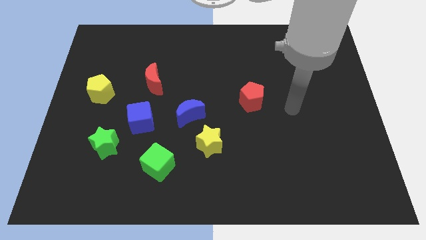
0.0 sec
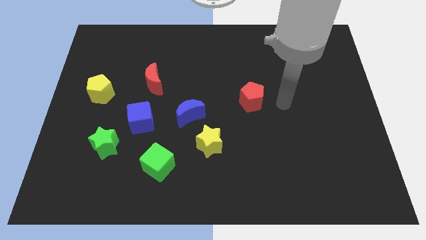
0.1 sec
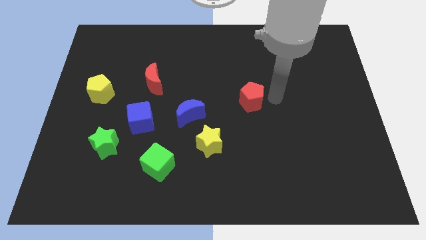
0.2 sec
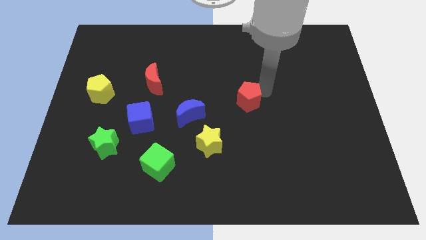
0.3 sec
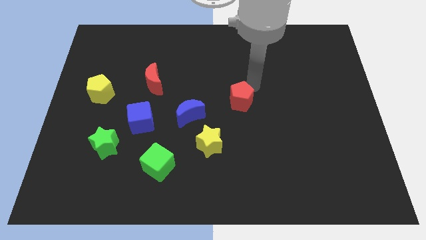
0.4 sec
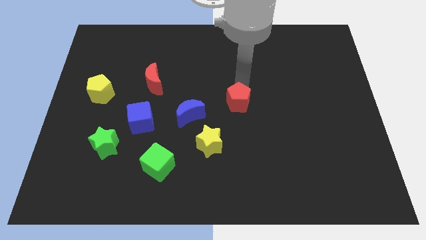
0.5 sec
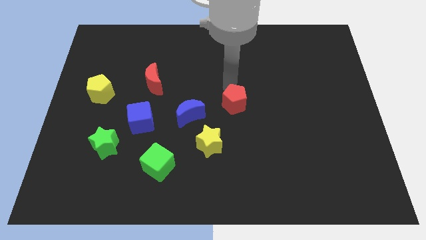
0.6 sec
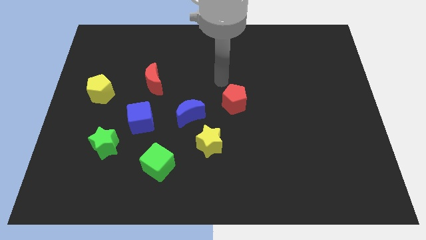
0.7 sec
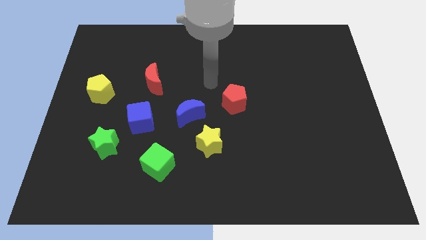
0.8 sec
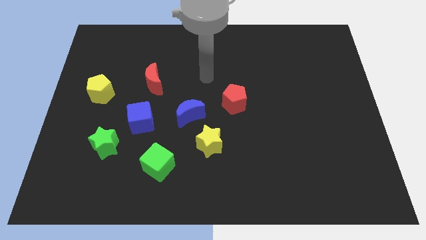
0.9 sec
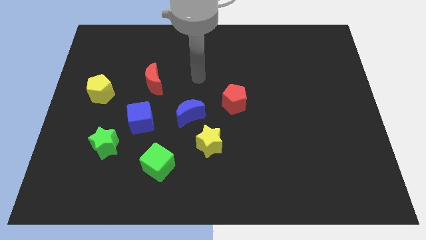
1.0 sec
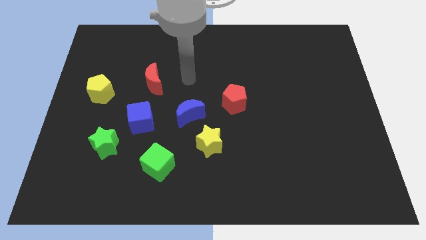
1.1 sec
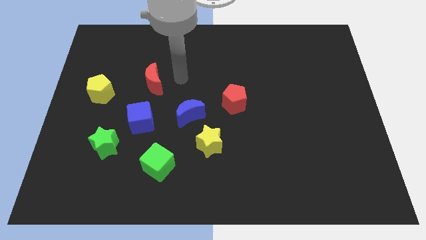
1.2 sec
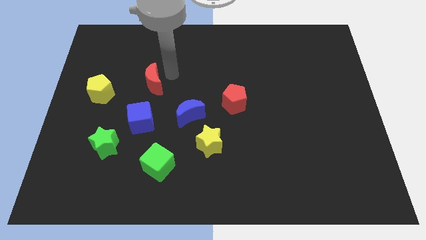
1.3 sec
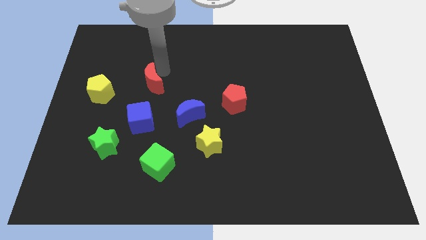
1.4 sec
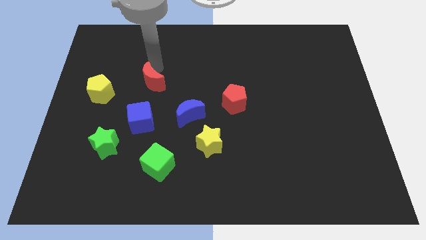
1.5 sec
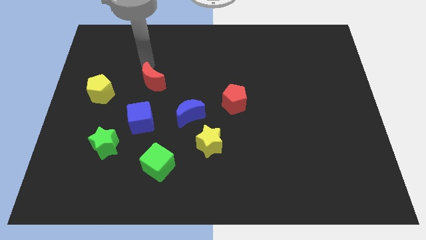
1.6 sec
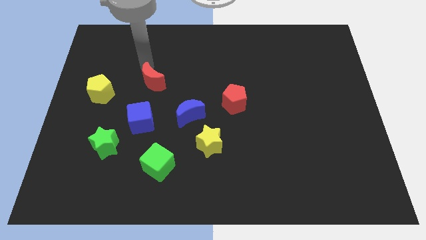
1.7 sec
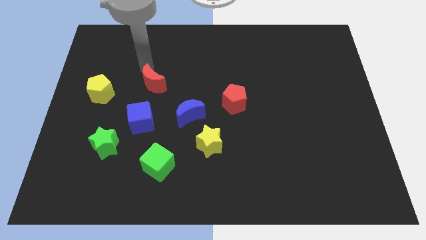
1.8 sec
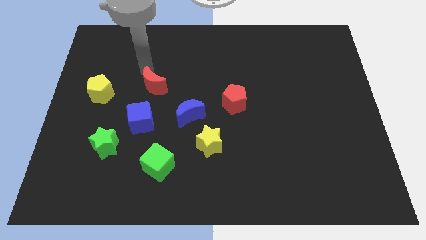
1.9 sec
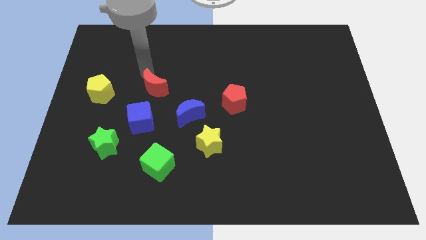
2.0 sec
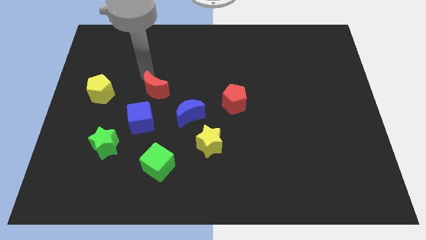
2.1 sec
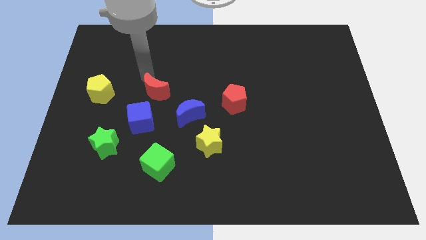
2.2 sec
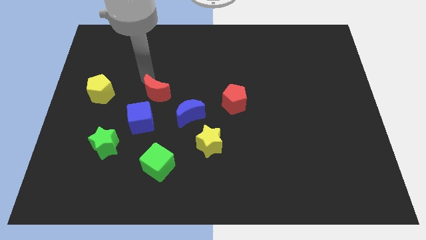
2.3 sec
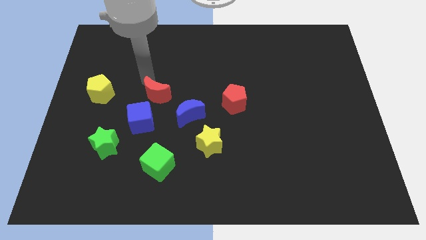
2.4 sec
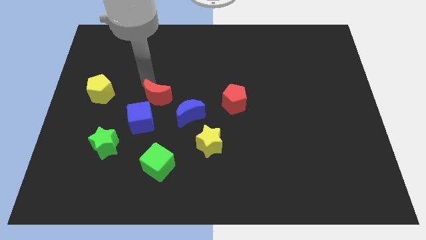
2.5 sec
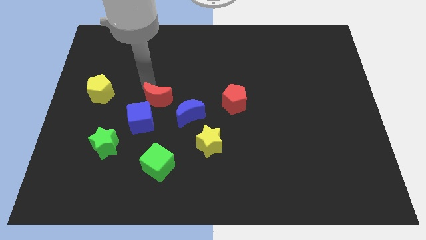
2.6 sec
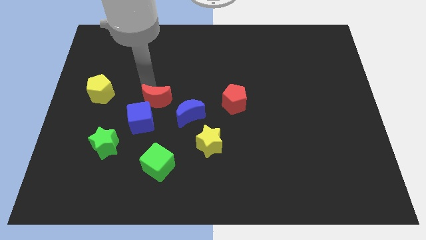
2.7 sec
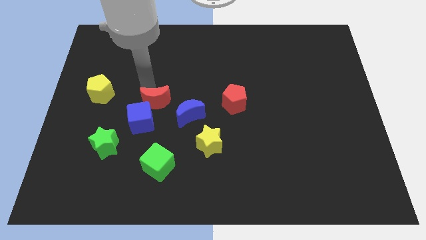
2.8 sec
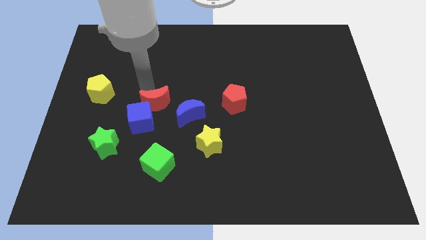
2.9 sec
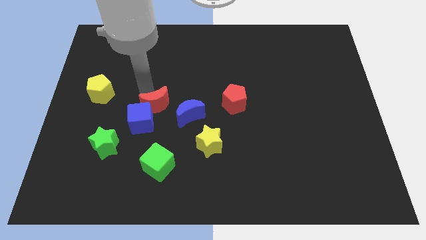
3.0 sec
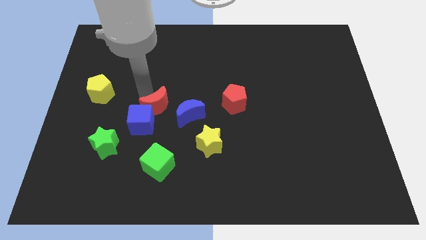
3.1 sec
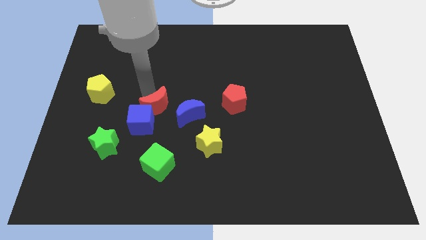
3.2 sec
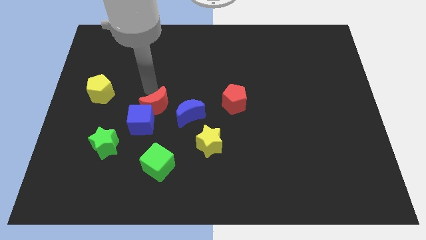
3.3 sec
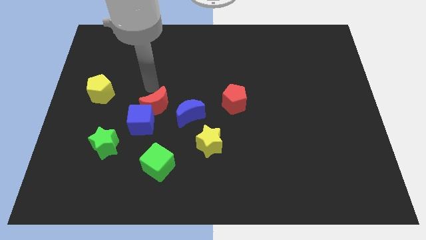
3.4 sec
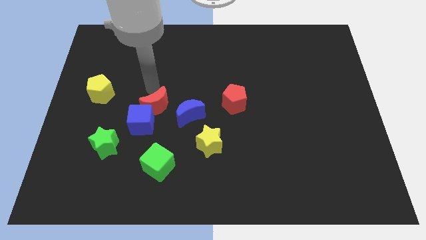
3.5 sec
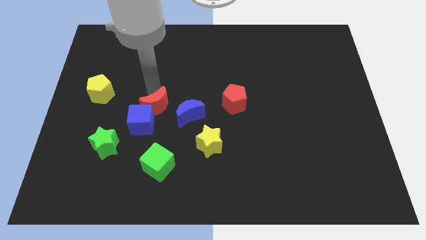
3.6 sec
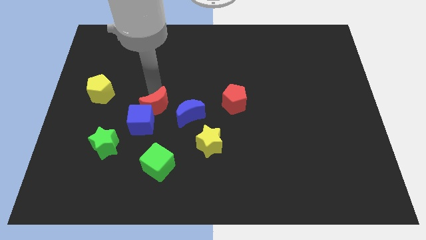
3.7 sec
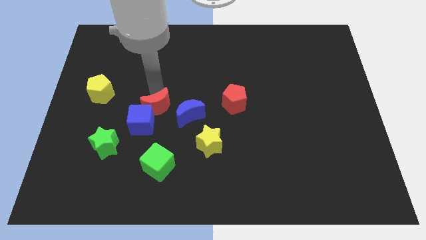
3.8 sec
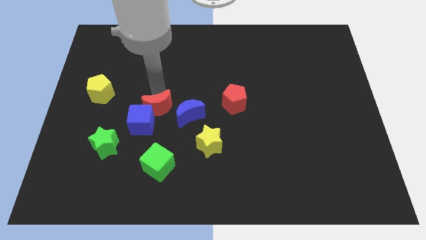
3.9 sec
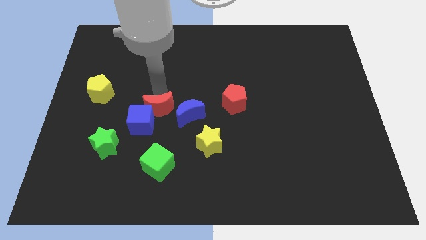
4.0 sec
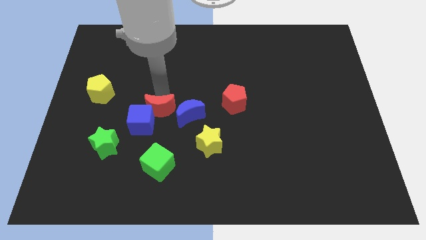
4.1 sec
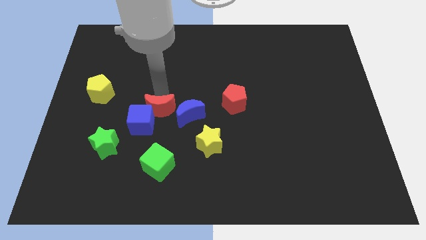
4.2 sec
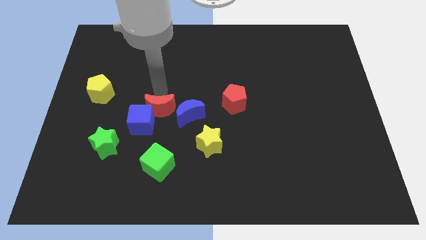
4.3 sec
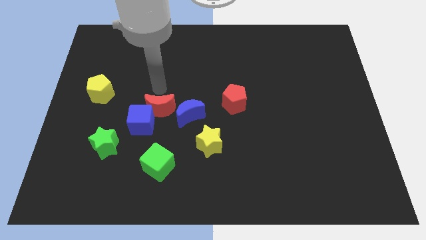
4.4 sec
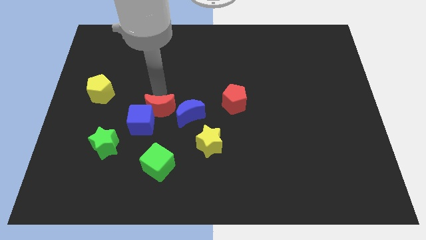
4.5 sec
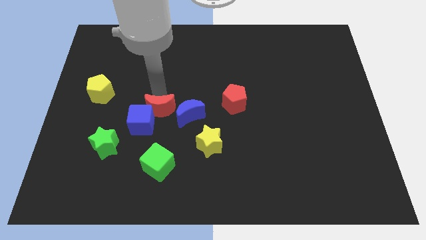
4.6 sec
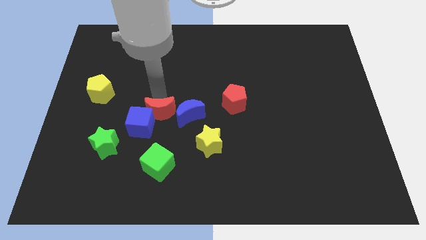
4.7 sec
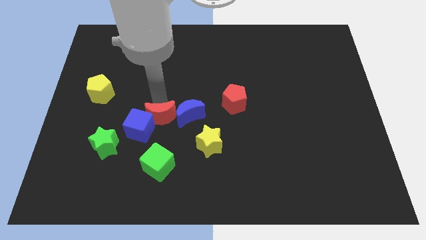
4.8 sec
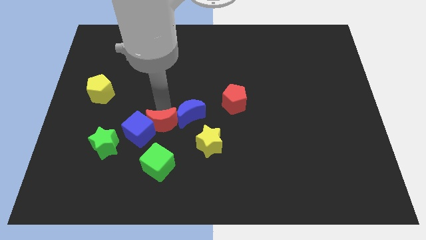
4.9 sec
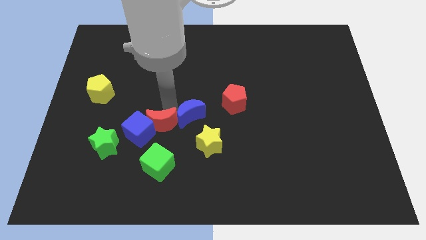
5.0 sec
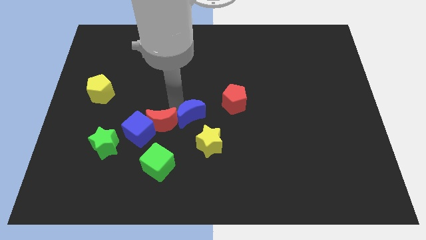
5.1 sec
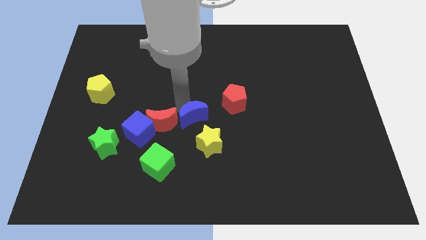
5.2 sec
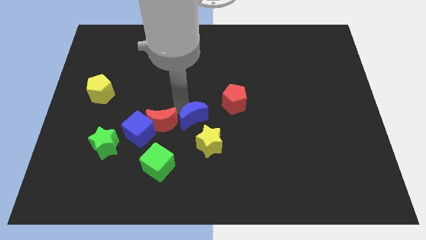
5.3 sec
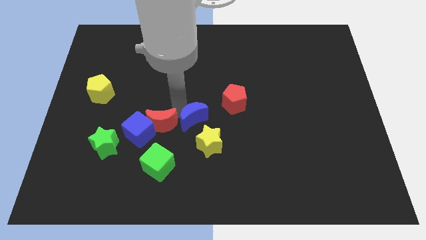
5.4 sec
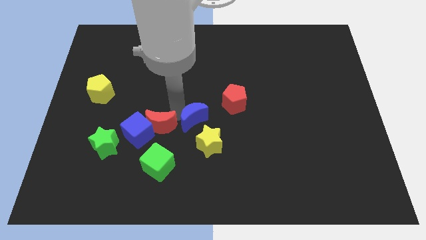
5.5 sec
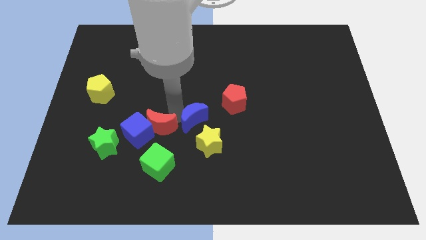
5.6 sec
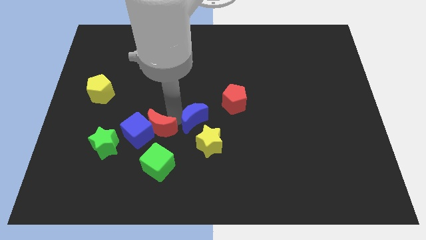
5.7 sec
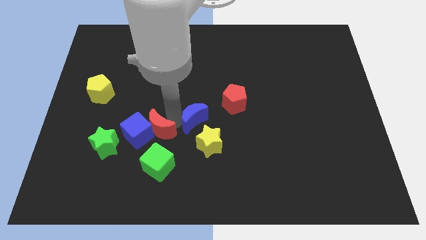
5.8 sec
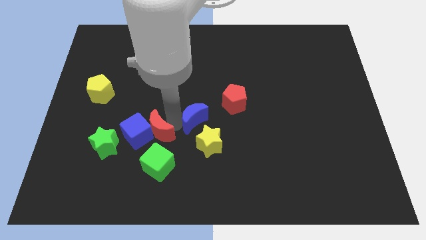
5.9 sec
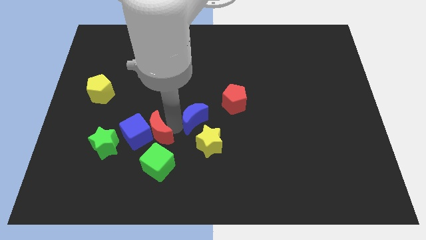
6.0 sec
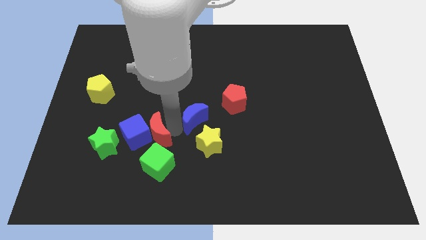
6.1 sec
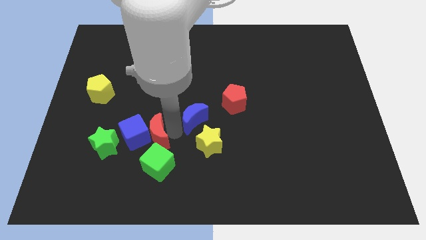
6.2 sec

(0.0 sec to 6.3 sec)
move the red moon to the top left side of the green cube
